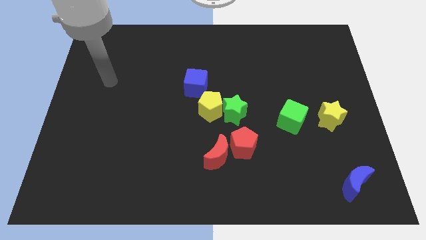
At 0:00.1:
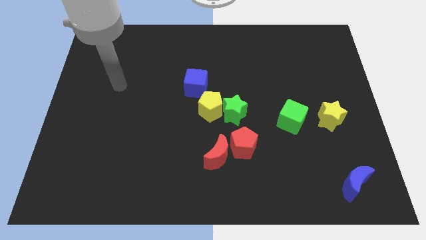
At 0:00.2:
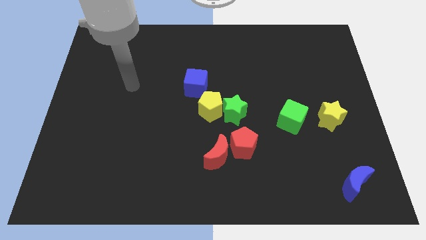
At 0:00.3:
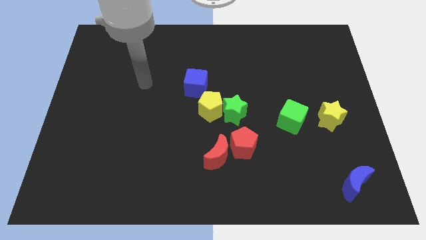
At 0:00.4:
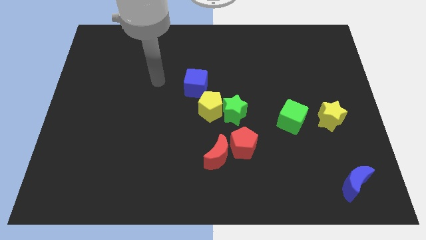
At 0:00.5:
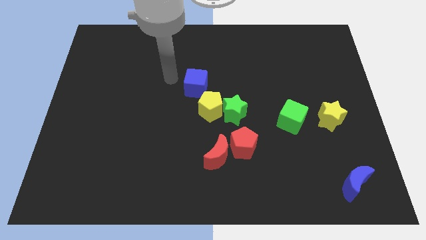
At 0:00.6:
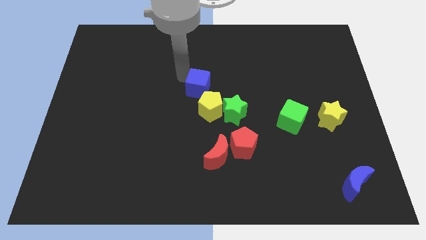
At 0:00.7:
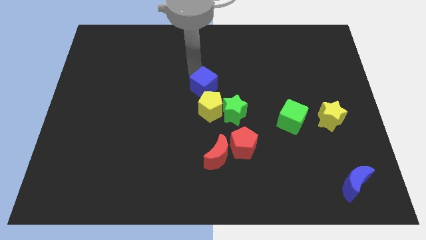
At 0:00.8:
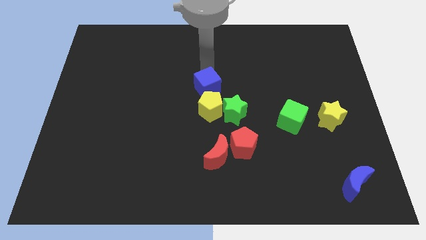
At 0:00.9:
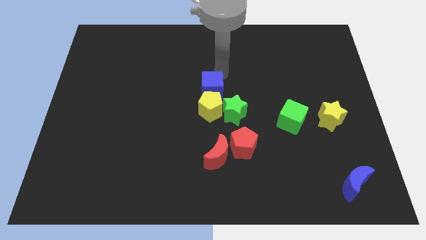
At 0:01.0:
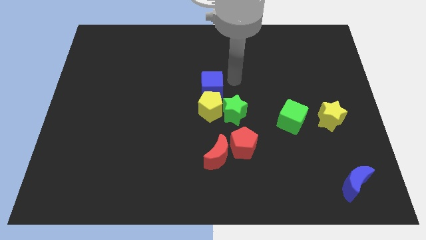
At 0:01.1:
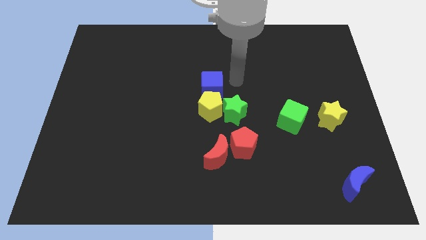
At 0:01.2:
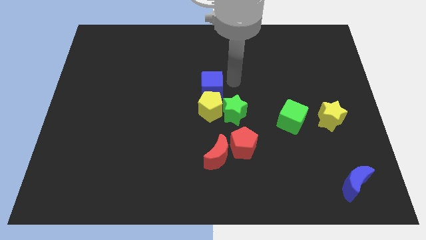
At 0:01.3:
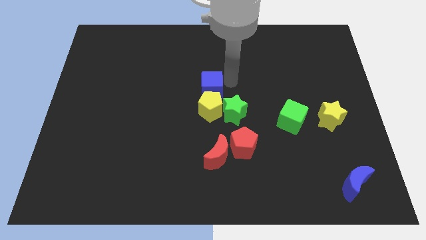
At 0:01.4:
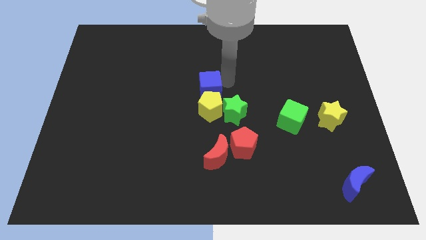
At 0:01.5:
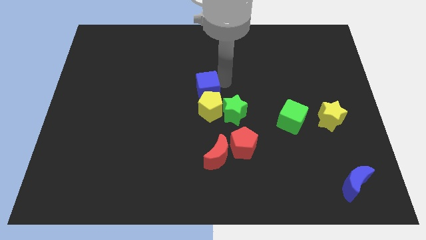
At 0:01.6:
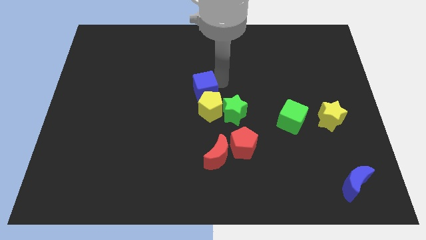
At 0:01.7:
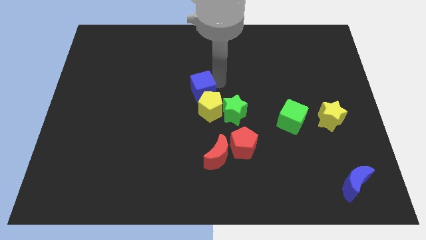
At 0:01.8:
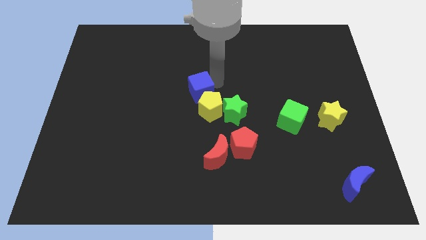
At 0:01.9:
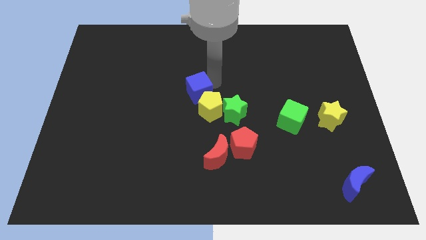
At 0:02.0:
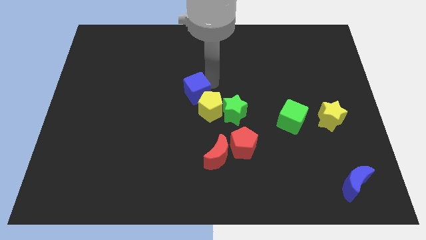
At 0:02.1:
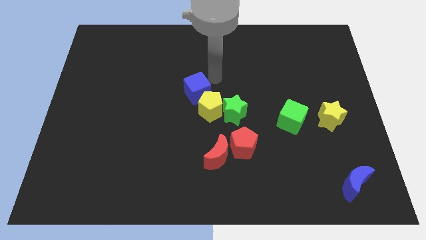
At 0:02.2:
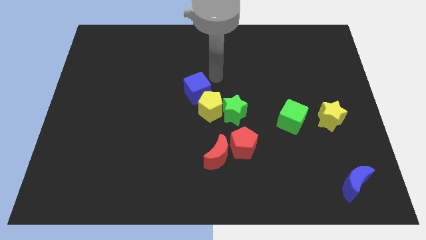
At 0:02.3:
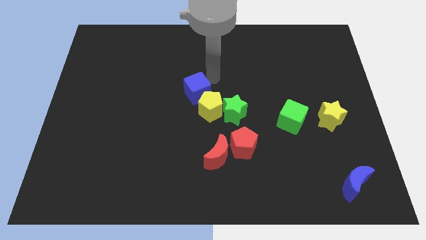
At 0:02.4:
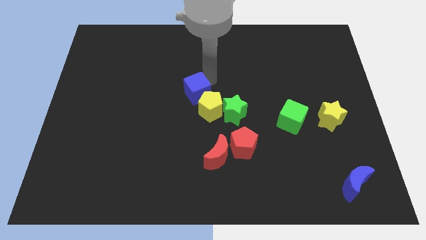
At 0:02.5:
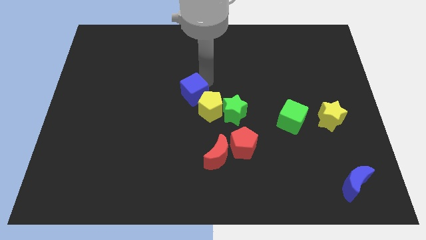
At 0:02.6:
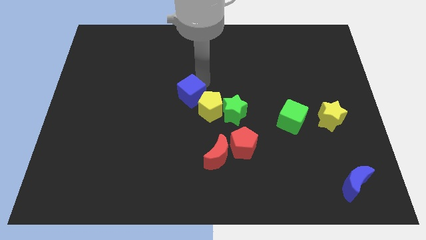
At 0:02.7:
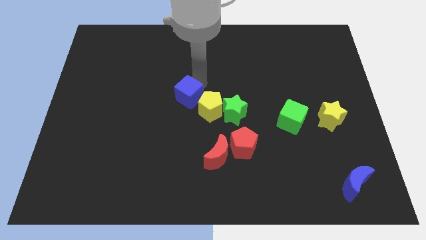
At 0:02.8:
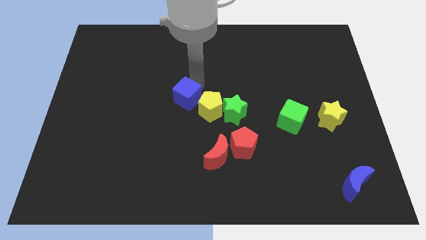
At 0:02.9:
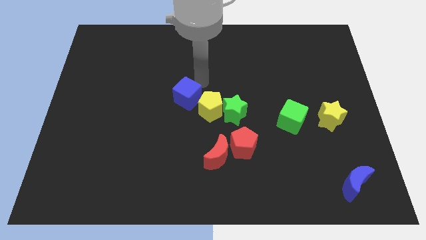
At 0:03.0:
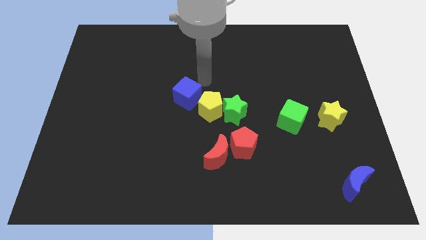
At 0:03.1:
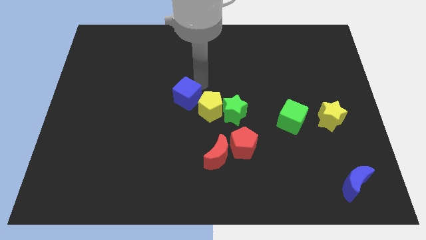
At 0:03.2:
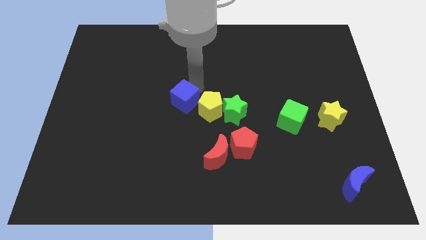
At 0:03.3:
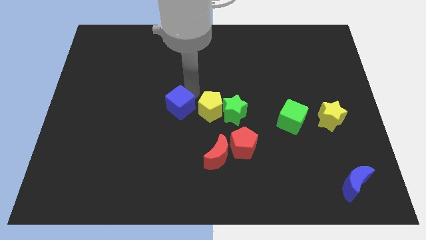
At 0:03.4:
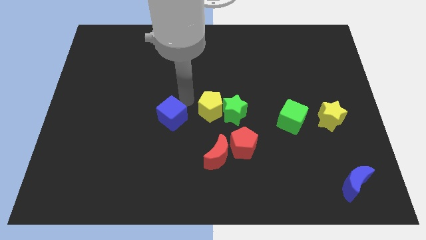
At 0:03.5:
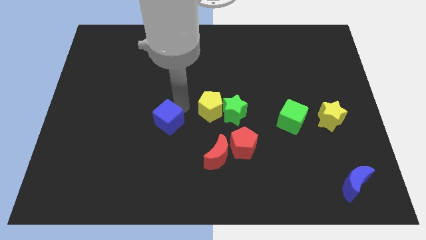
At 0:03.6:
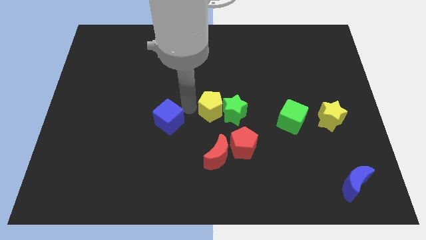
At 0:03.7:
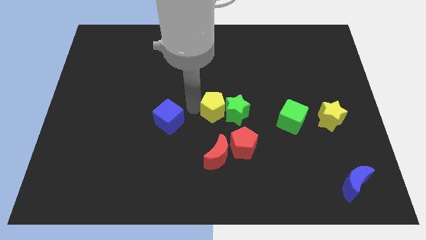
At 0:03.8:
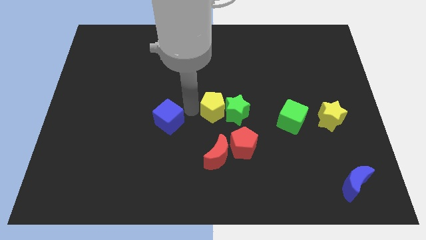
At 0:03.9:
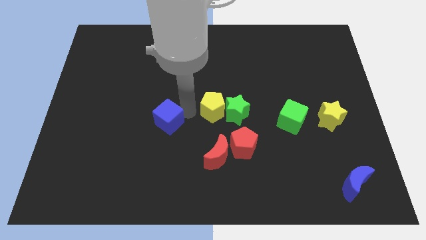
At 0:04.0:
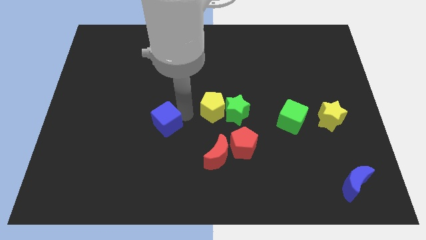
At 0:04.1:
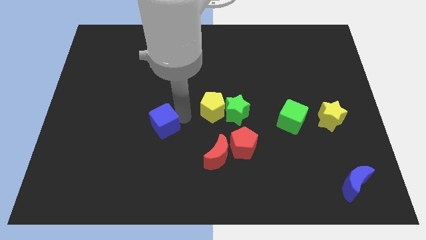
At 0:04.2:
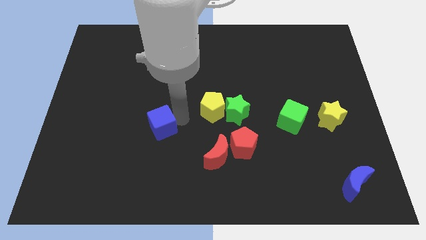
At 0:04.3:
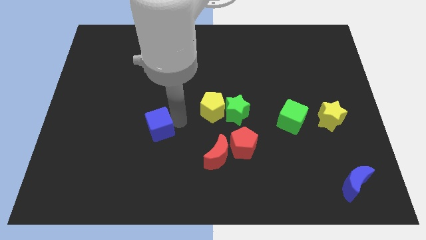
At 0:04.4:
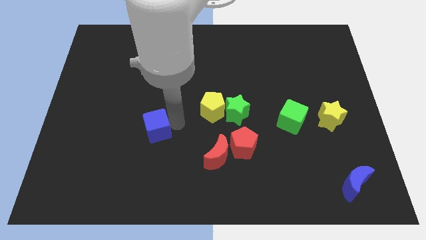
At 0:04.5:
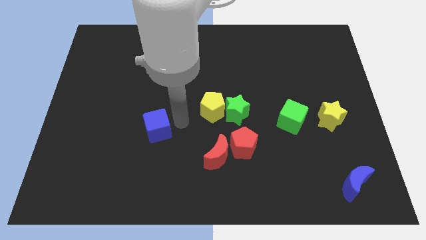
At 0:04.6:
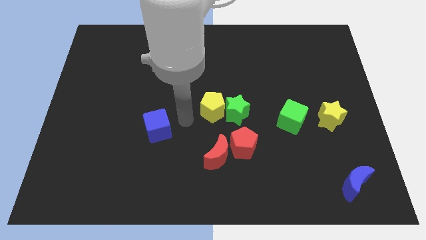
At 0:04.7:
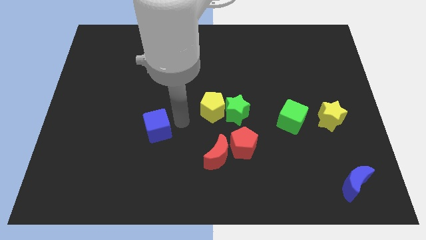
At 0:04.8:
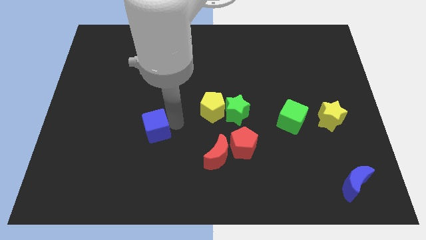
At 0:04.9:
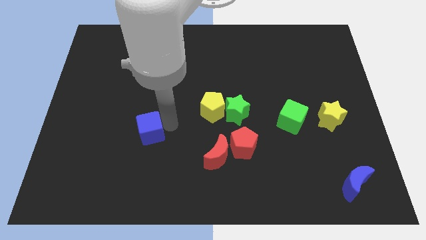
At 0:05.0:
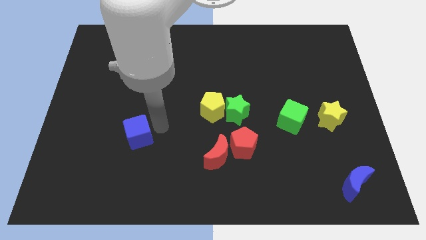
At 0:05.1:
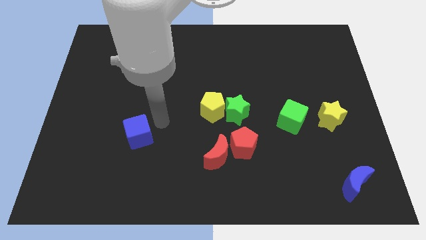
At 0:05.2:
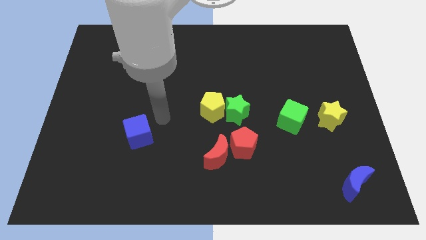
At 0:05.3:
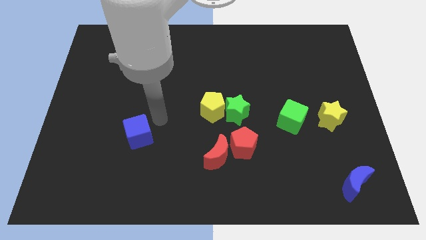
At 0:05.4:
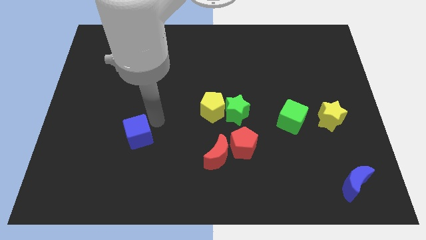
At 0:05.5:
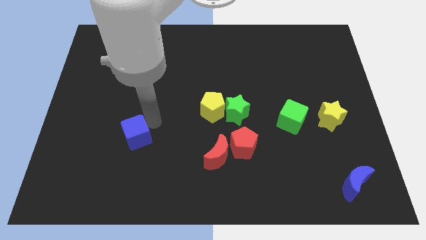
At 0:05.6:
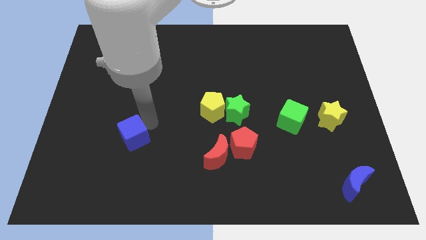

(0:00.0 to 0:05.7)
push the blue cube downwards and left

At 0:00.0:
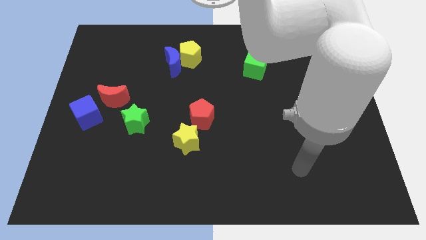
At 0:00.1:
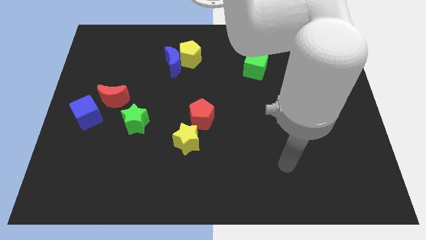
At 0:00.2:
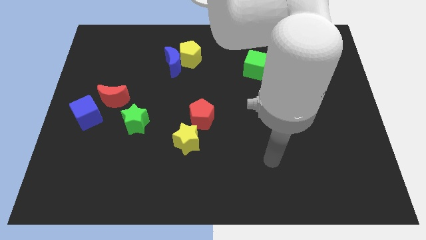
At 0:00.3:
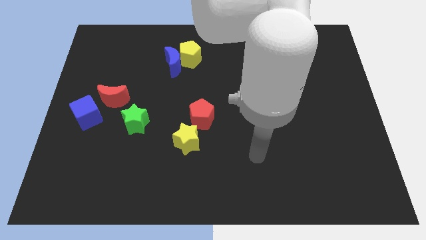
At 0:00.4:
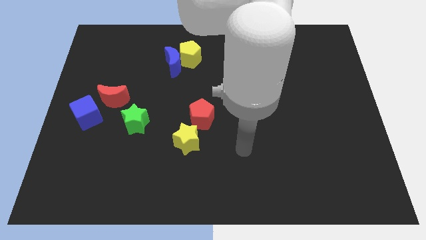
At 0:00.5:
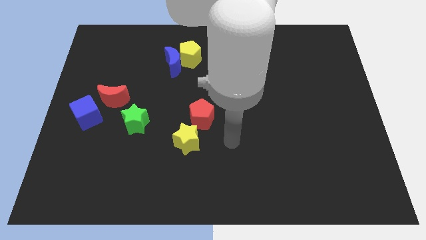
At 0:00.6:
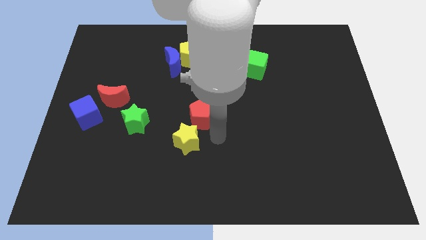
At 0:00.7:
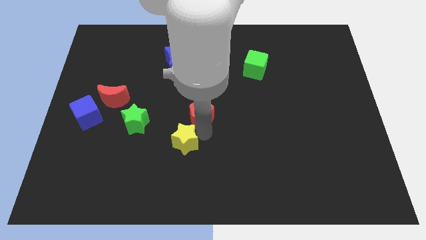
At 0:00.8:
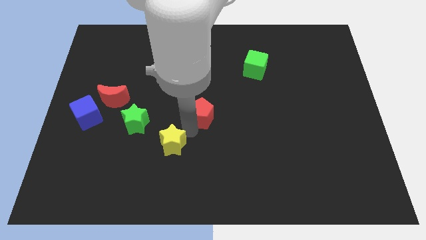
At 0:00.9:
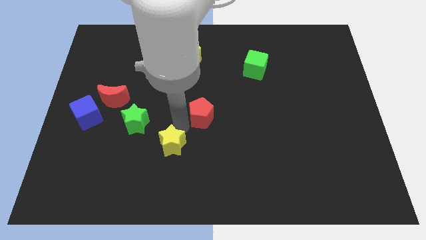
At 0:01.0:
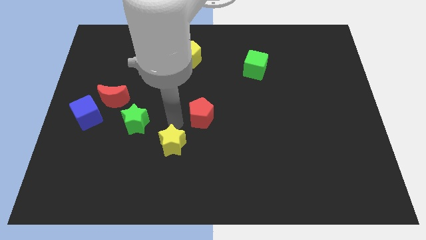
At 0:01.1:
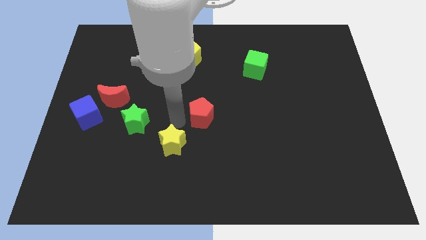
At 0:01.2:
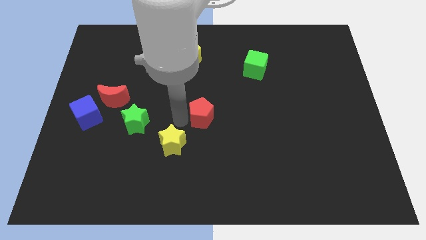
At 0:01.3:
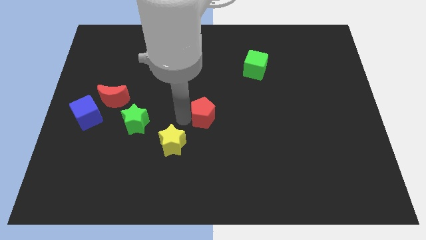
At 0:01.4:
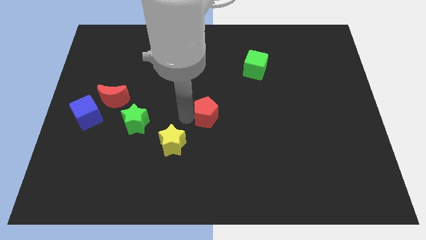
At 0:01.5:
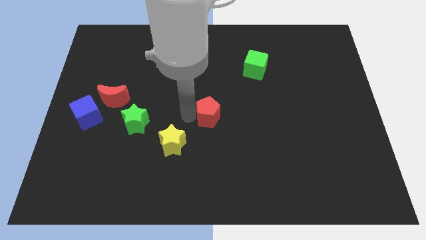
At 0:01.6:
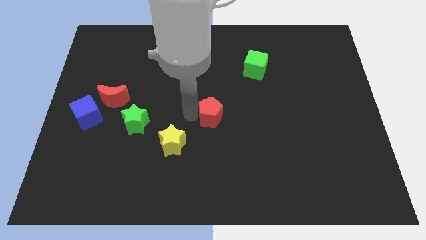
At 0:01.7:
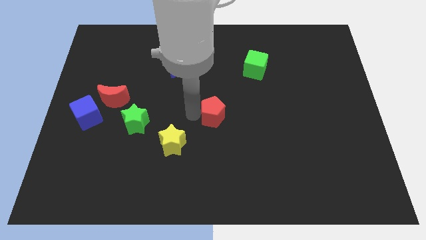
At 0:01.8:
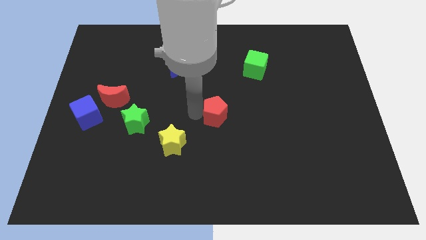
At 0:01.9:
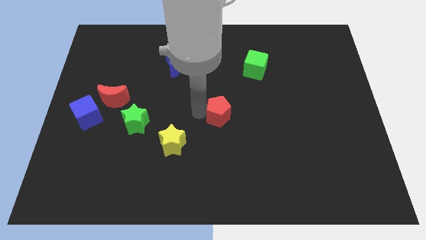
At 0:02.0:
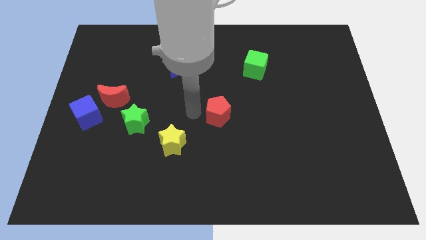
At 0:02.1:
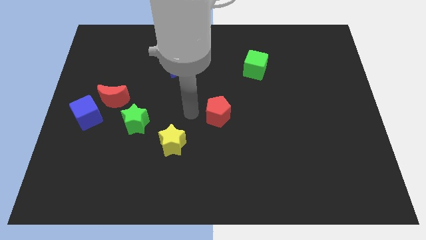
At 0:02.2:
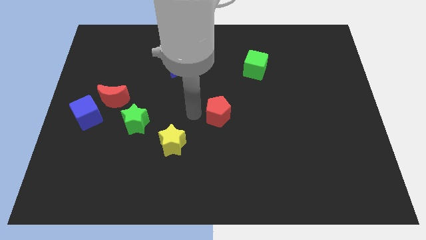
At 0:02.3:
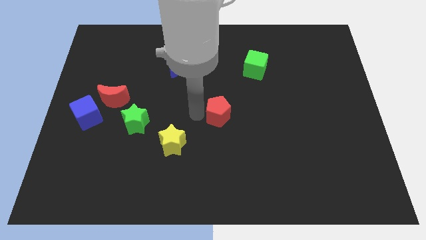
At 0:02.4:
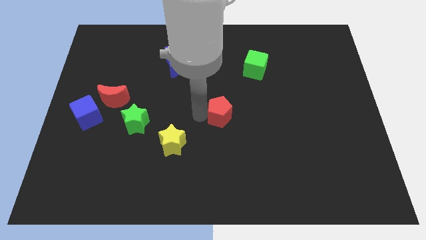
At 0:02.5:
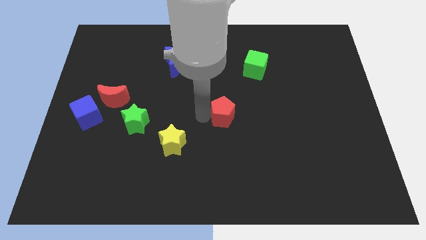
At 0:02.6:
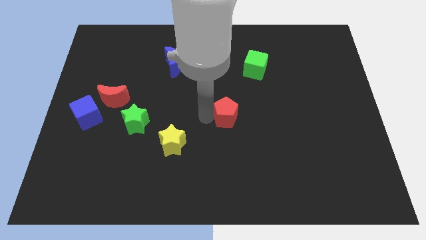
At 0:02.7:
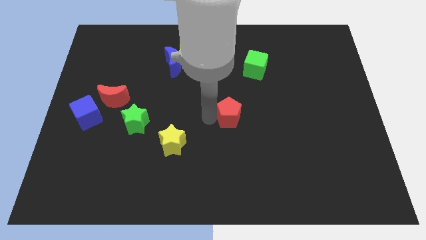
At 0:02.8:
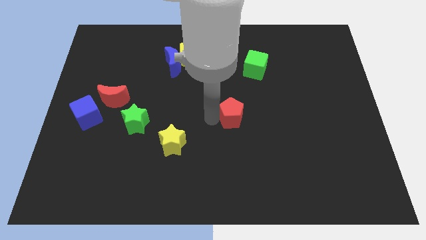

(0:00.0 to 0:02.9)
slightly slide the red pentagon to the right
